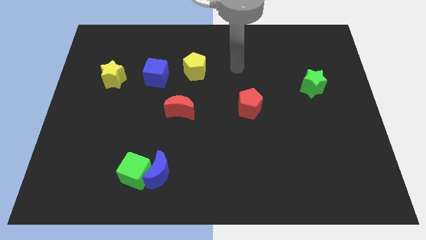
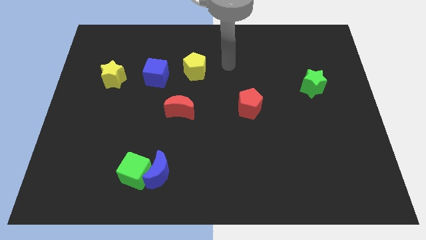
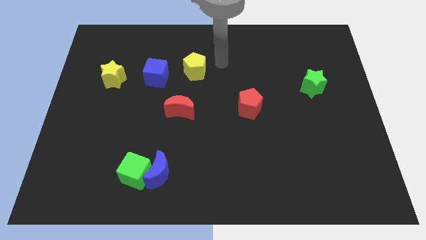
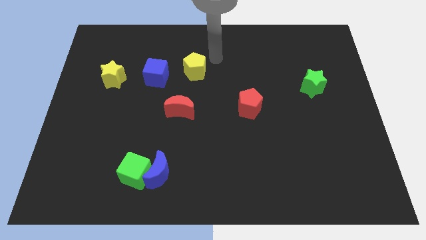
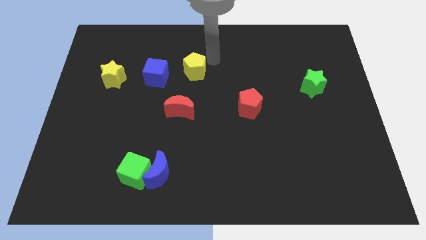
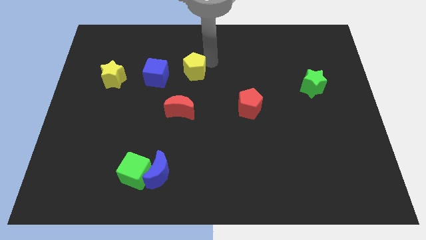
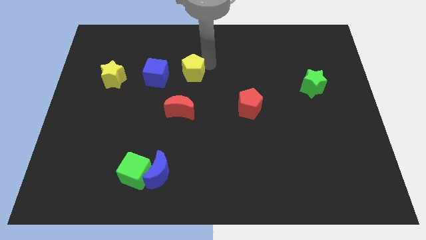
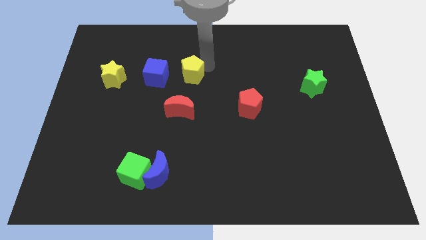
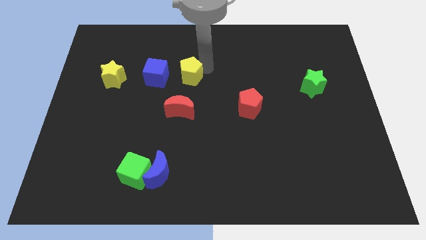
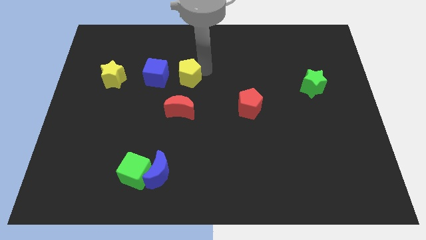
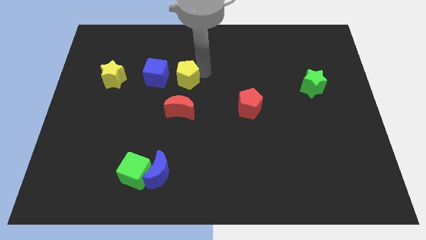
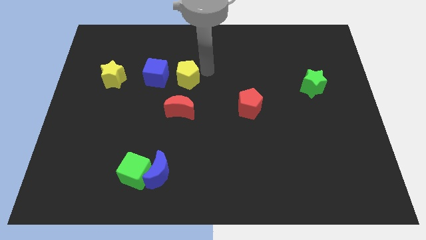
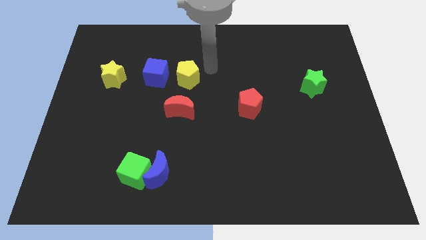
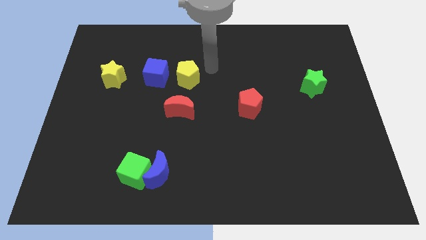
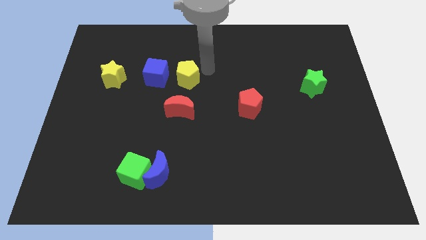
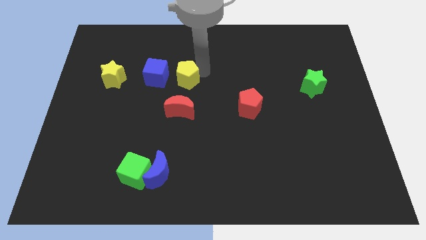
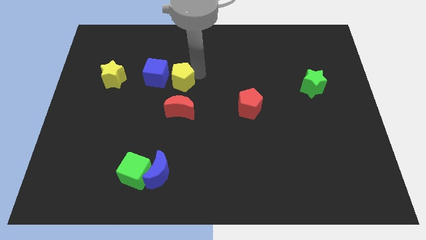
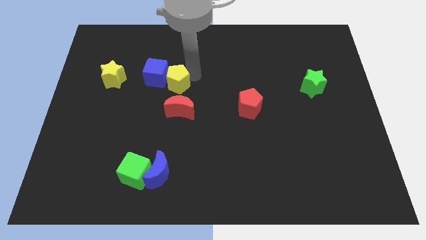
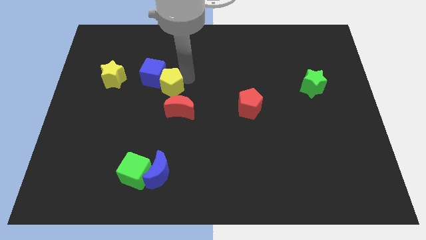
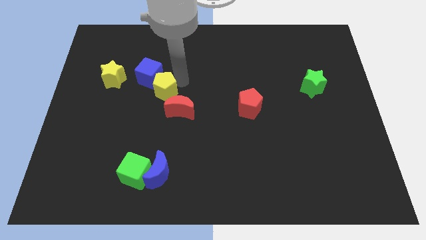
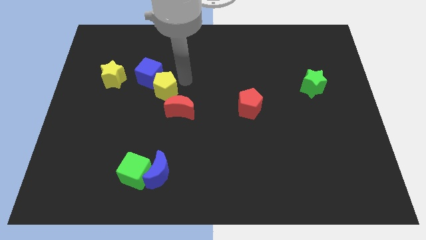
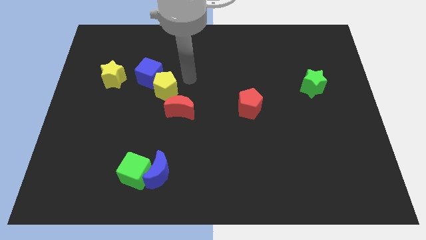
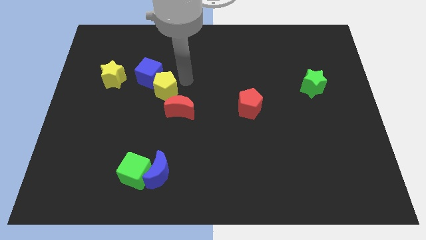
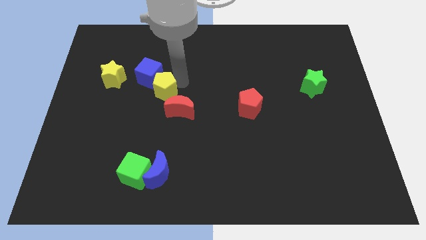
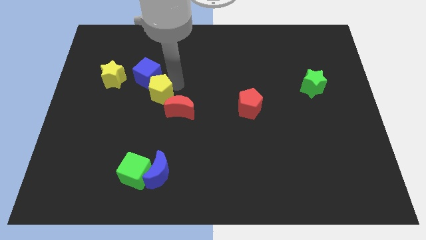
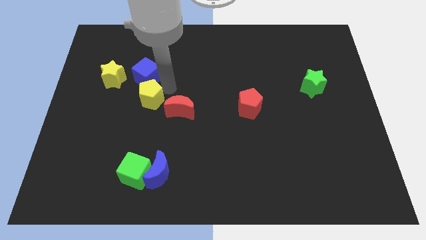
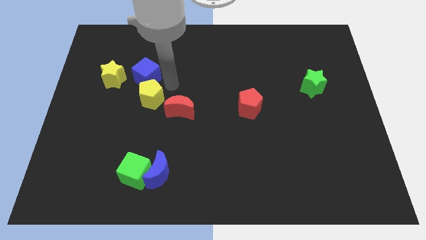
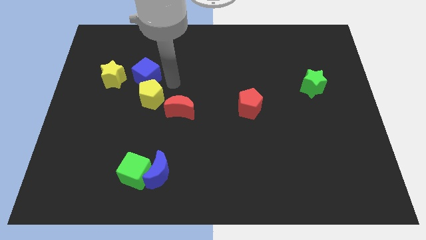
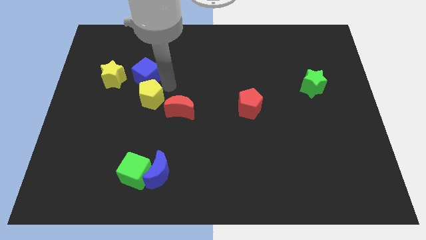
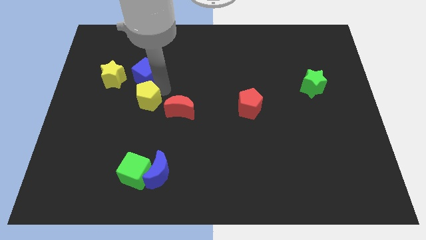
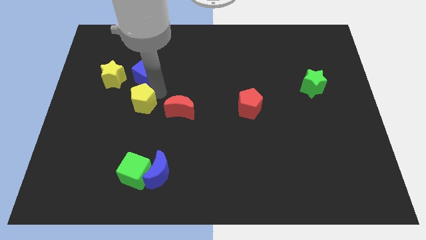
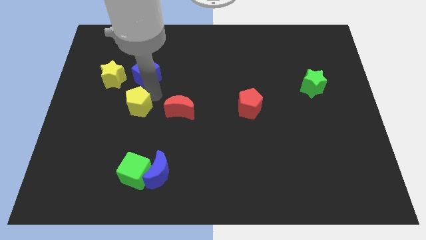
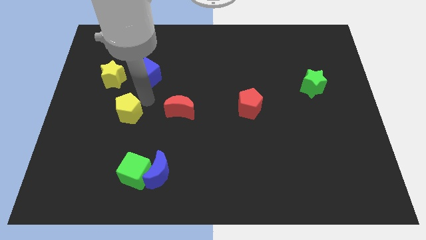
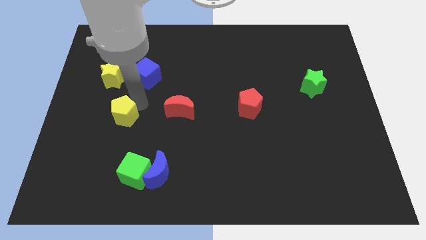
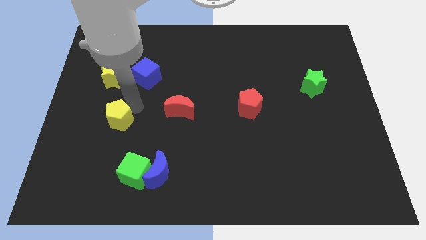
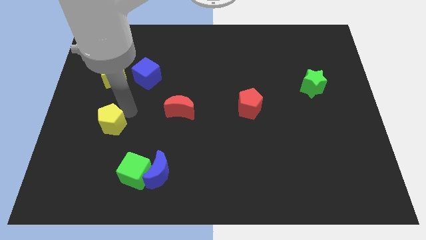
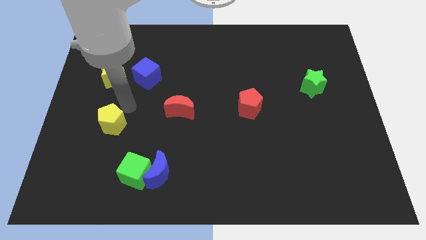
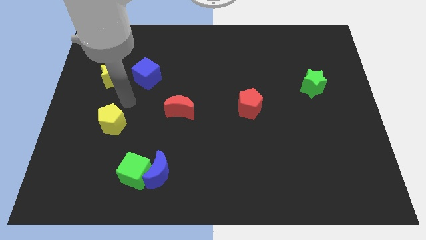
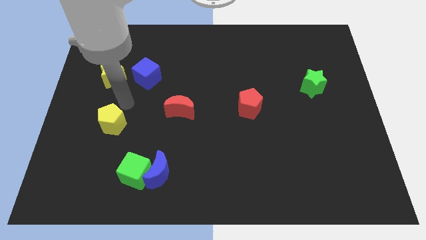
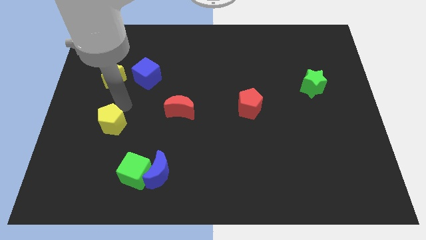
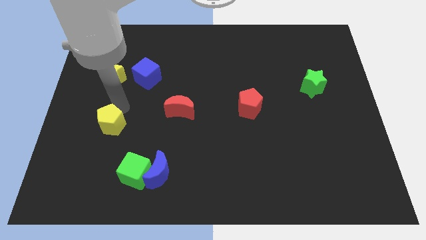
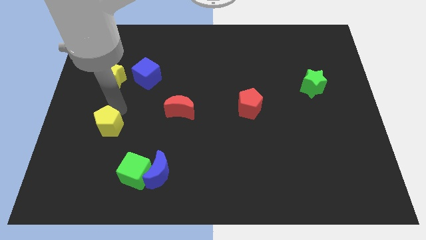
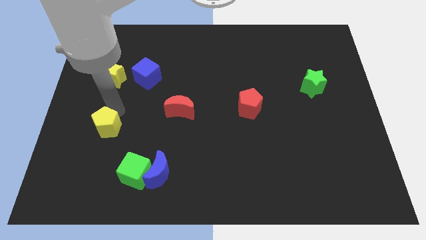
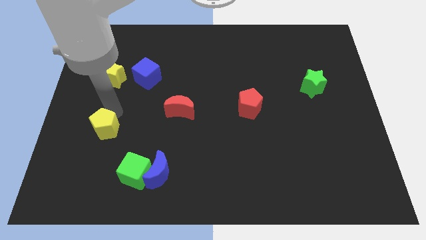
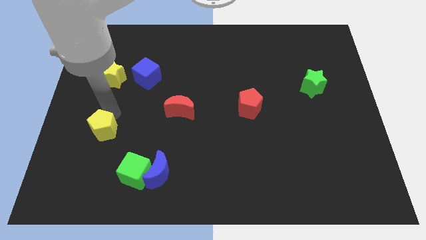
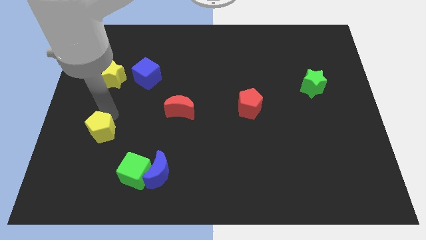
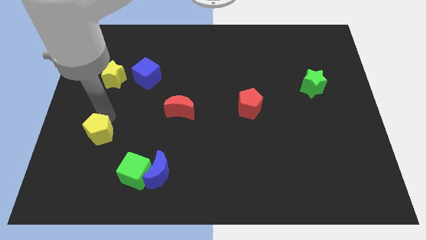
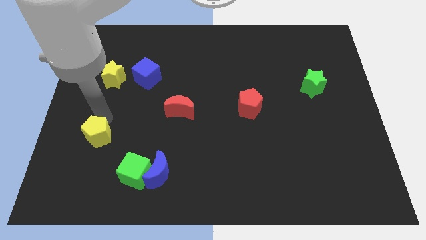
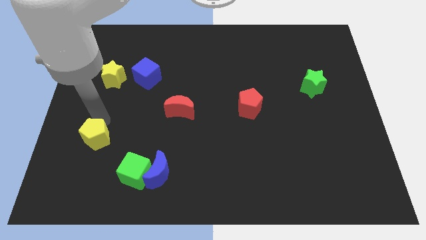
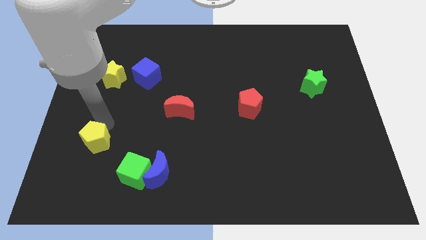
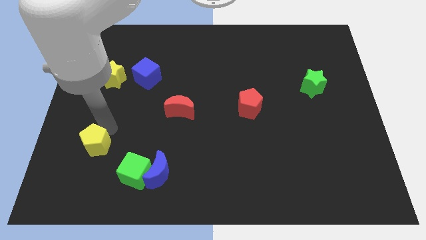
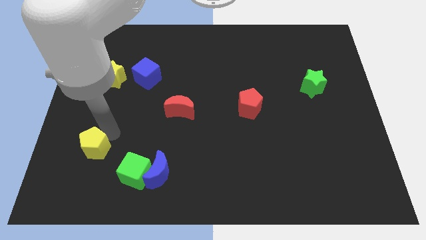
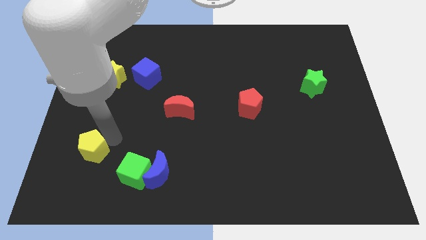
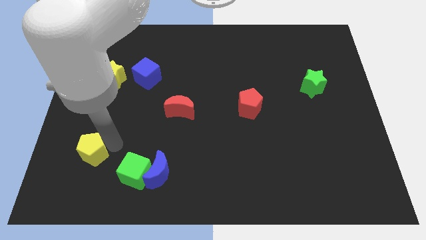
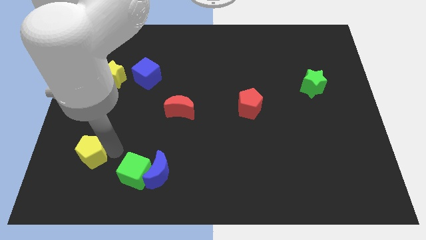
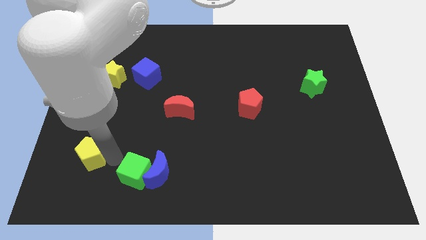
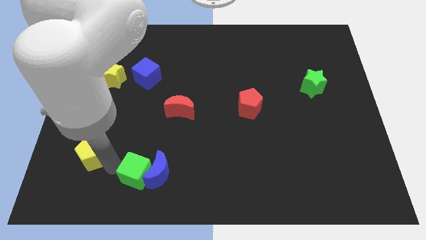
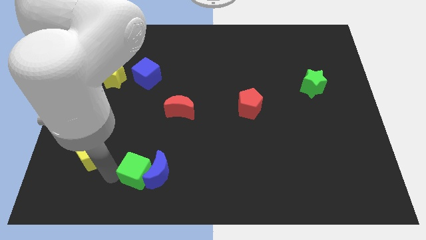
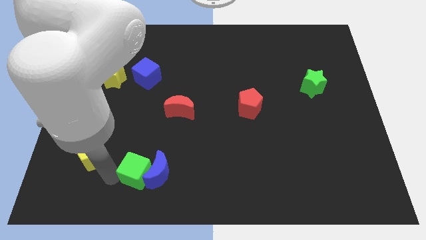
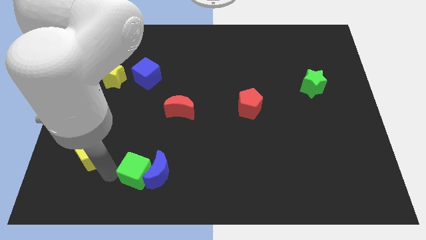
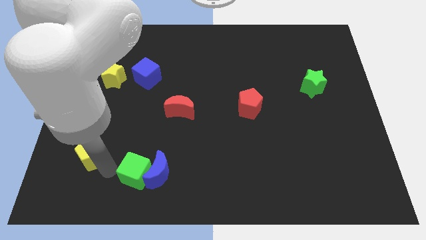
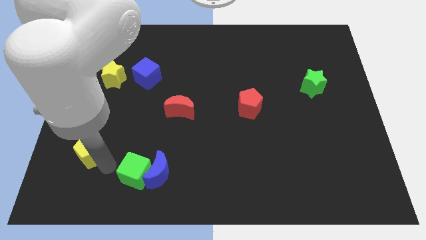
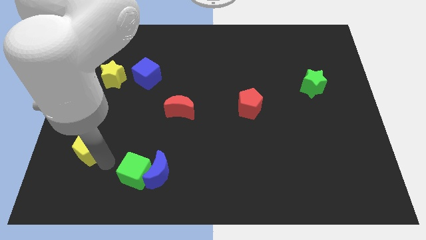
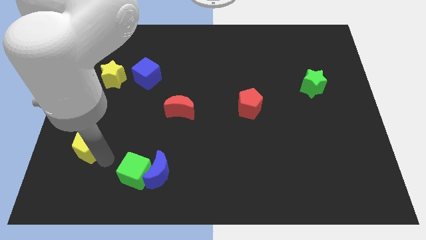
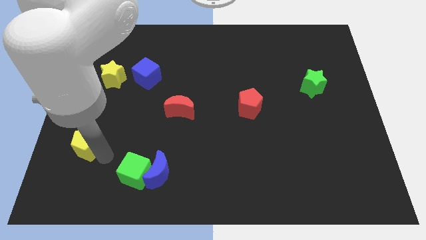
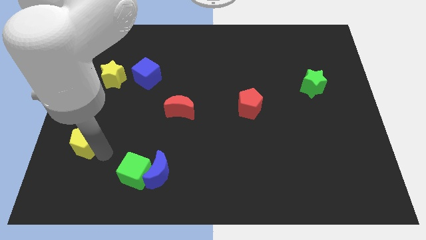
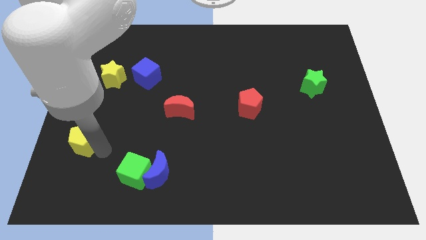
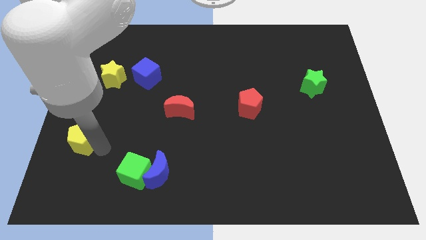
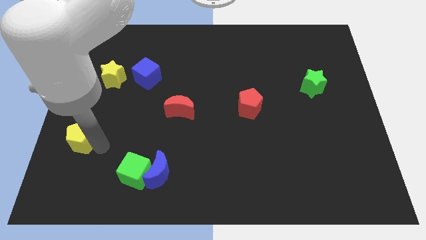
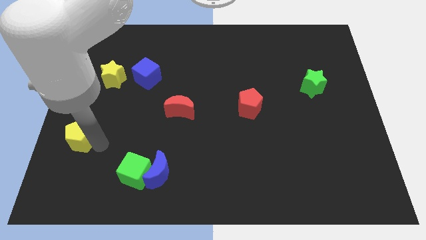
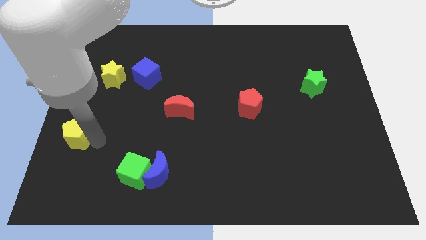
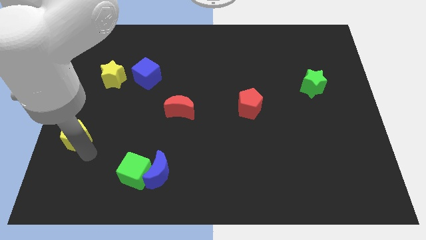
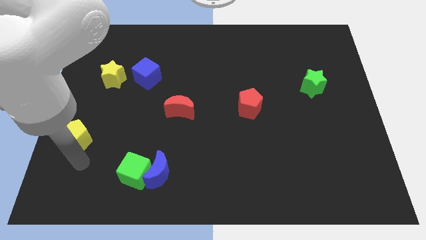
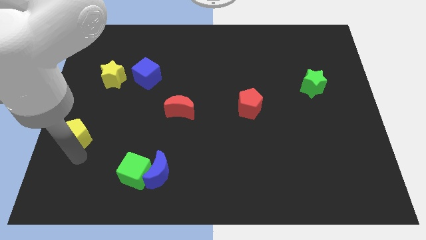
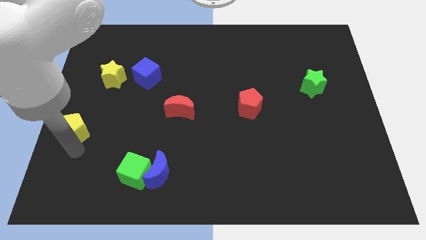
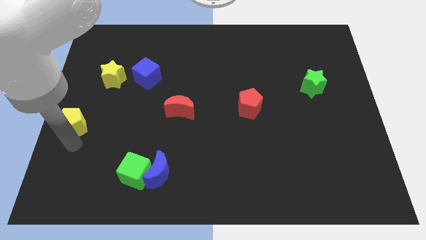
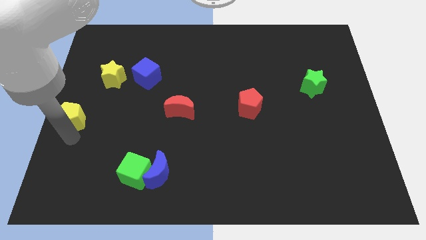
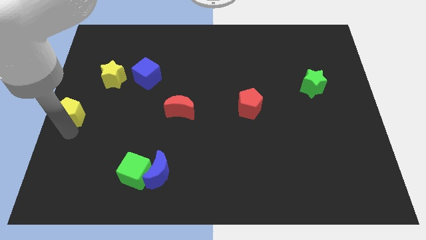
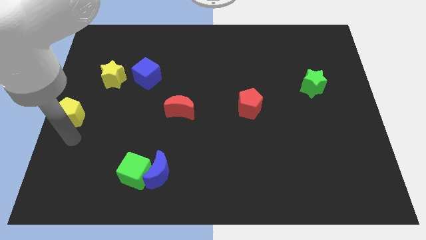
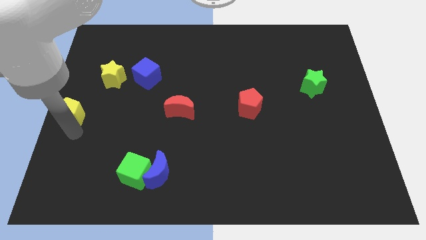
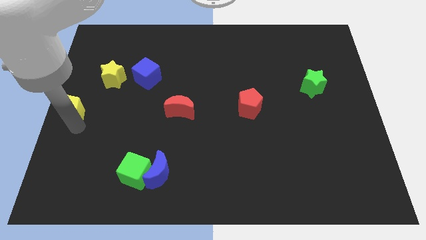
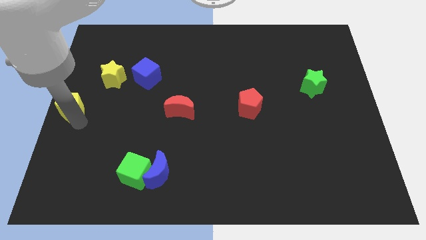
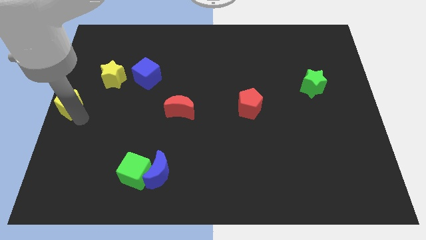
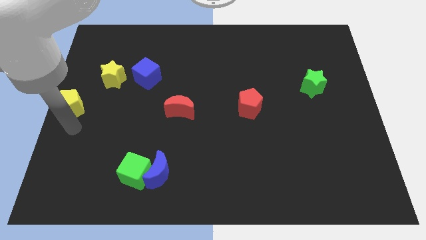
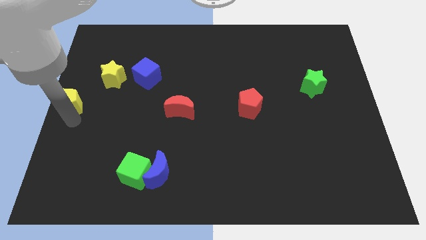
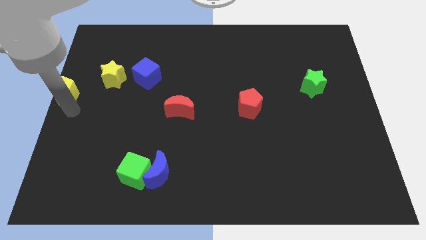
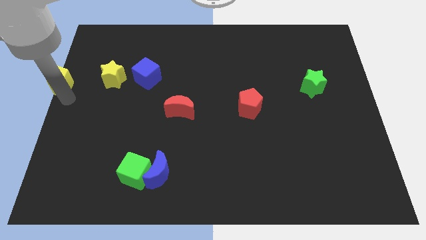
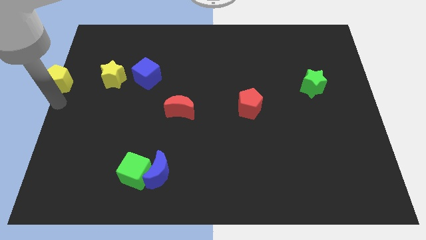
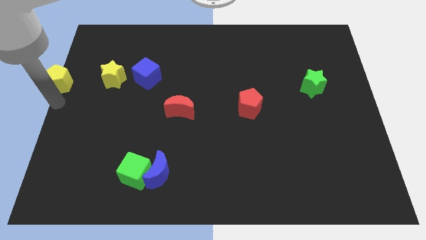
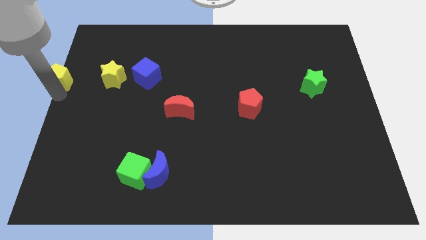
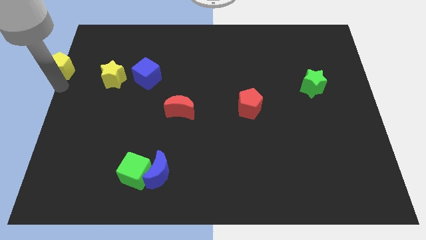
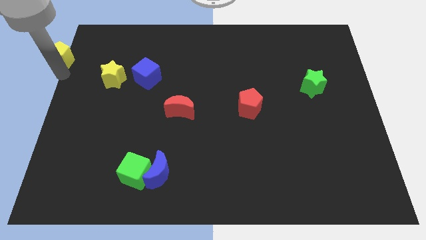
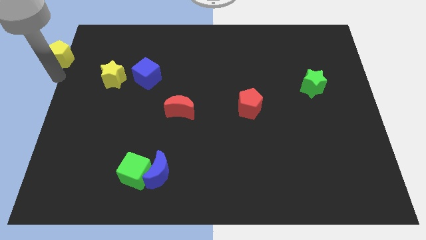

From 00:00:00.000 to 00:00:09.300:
put the yellow pentagon to the top left
